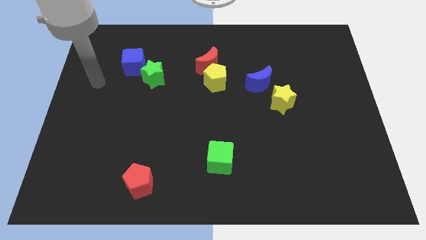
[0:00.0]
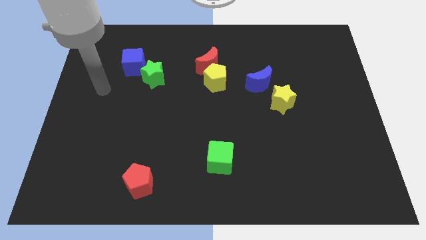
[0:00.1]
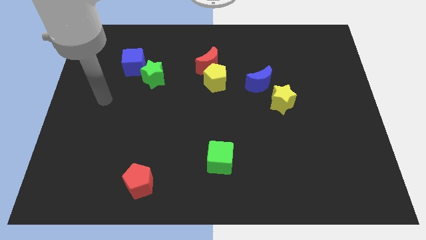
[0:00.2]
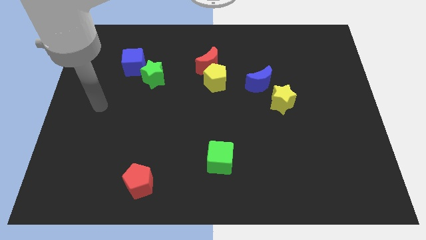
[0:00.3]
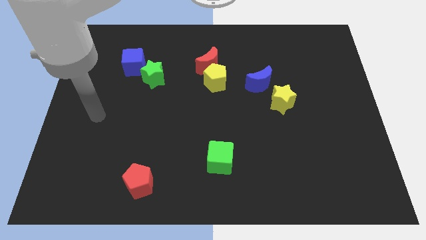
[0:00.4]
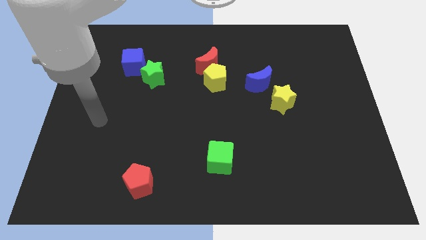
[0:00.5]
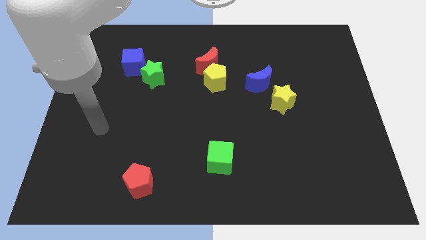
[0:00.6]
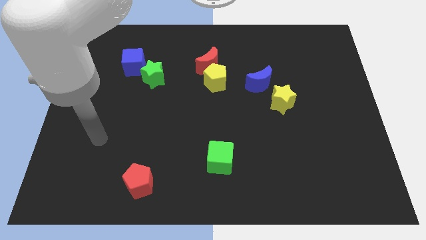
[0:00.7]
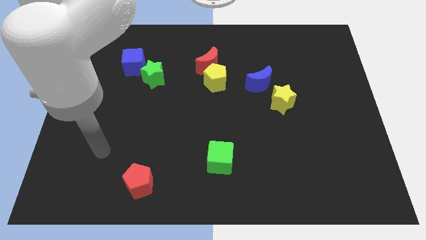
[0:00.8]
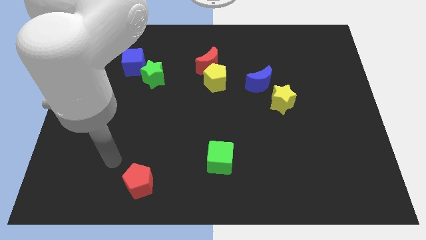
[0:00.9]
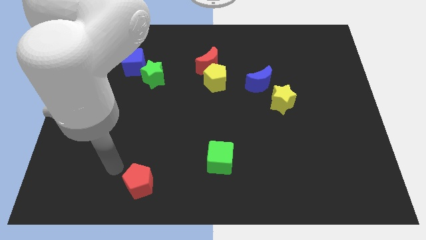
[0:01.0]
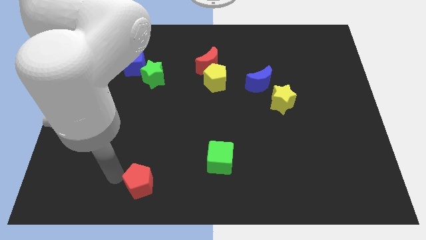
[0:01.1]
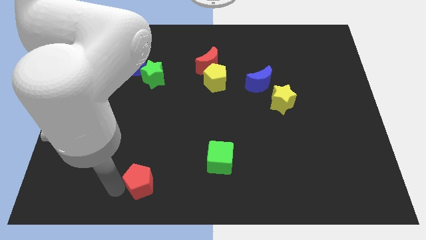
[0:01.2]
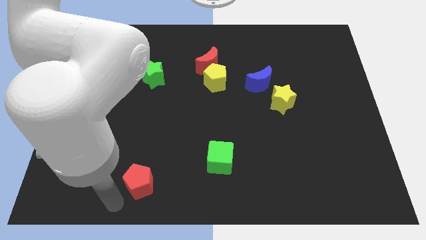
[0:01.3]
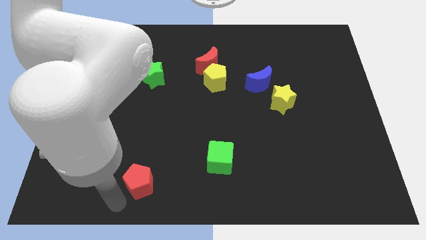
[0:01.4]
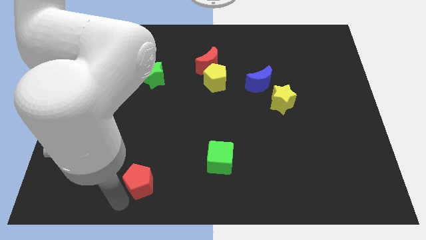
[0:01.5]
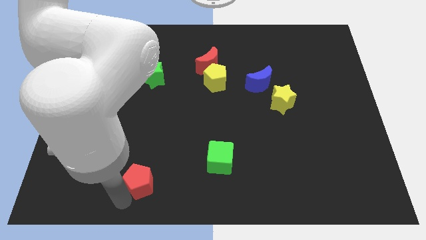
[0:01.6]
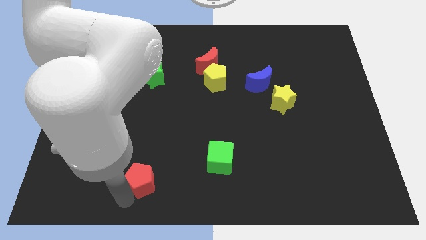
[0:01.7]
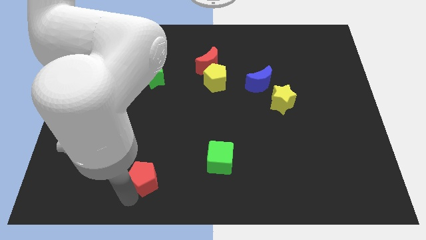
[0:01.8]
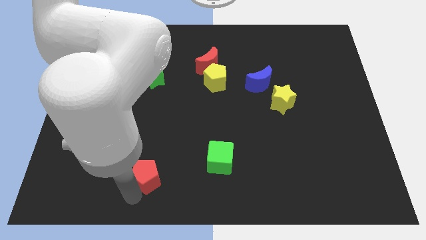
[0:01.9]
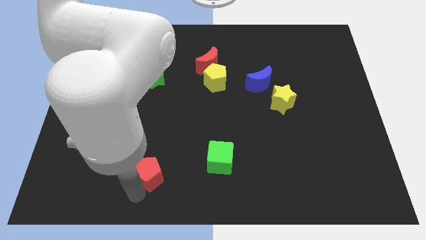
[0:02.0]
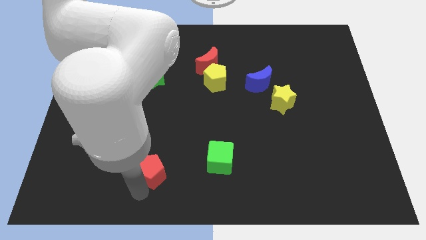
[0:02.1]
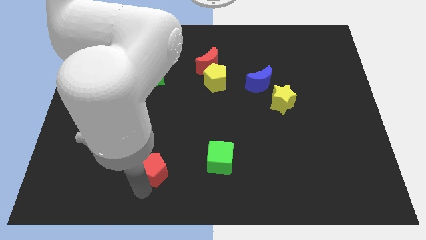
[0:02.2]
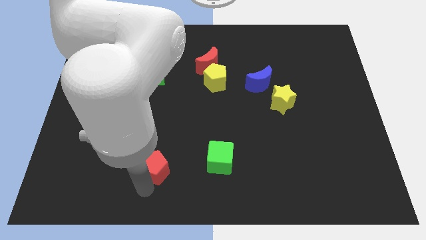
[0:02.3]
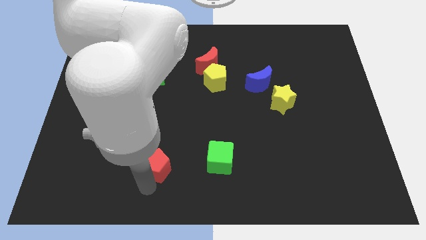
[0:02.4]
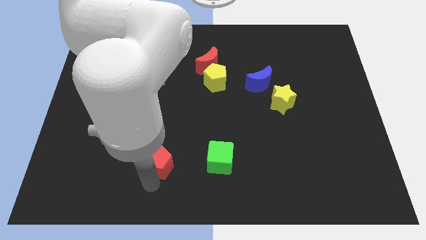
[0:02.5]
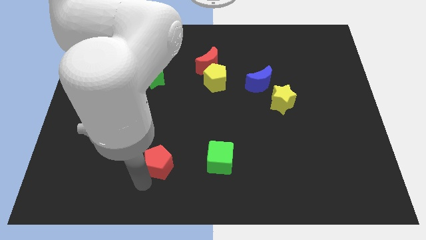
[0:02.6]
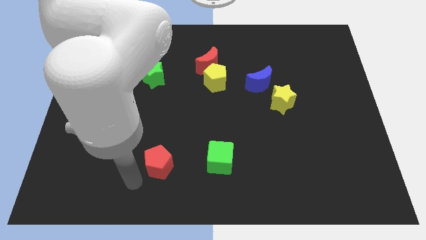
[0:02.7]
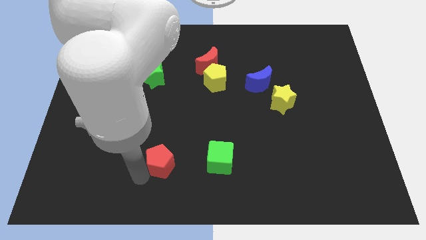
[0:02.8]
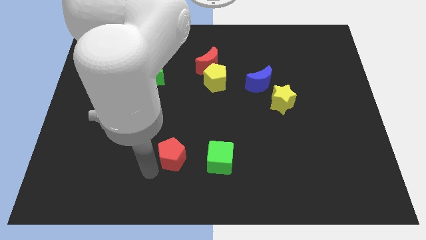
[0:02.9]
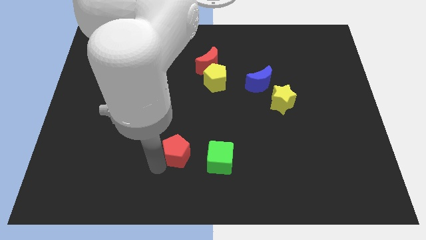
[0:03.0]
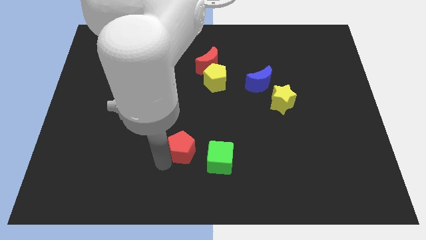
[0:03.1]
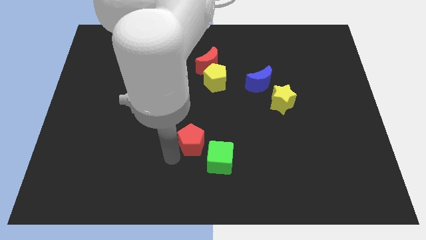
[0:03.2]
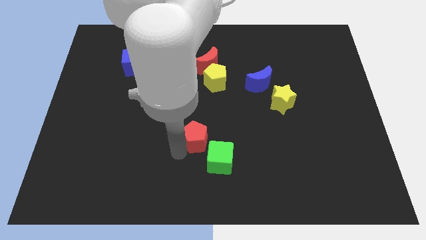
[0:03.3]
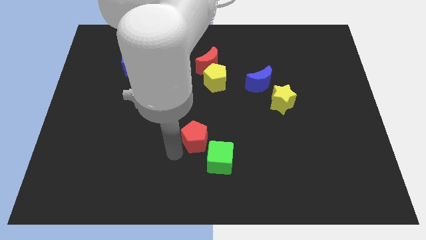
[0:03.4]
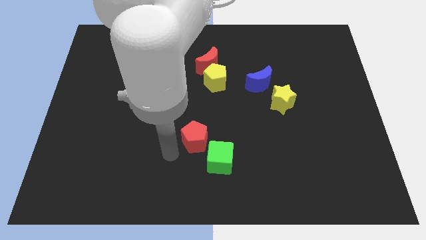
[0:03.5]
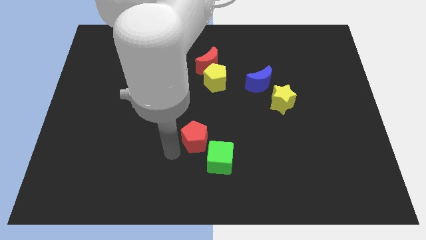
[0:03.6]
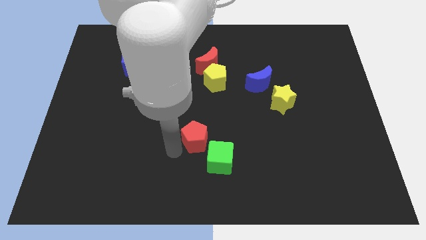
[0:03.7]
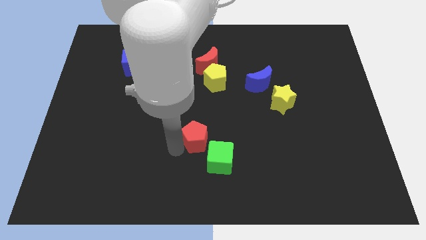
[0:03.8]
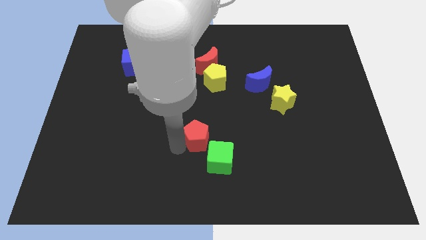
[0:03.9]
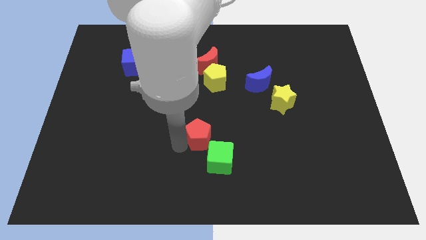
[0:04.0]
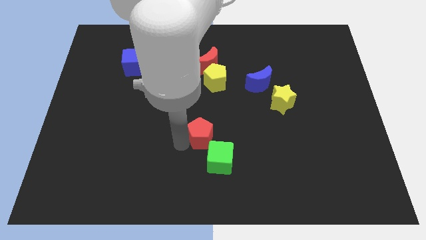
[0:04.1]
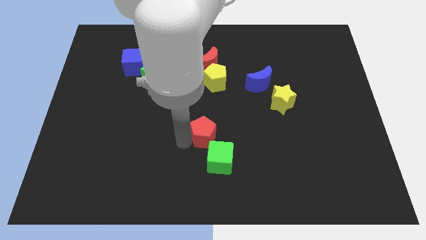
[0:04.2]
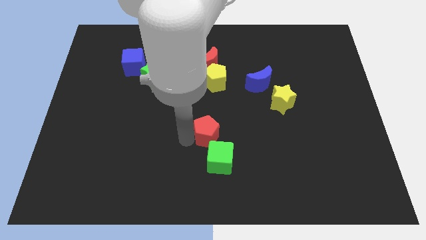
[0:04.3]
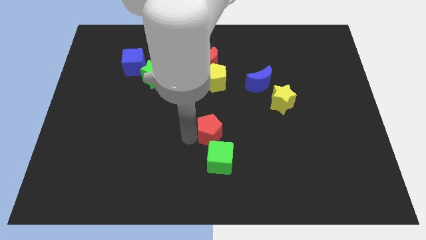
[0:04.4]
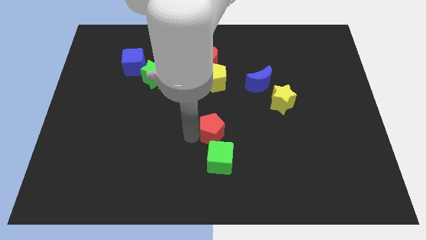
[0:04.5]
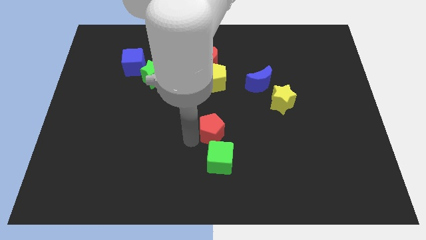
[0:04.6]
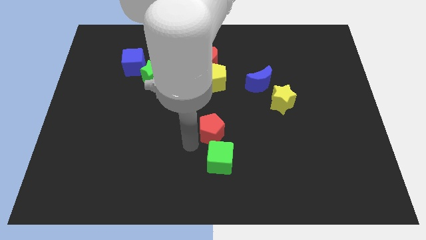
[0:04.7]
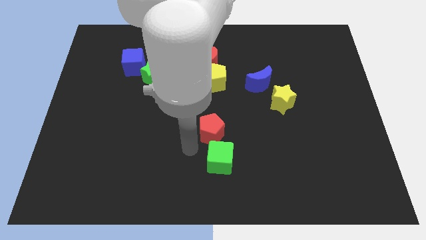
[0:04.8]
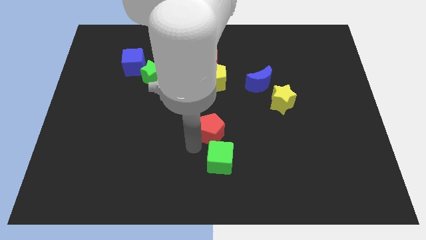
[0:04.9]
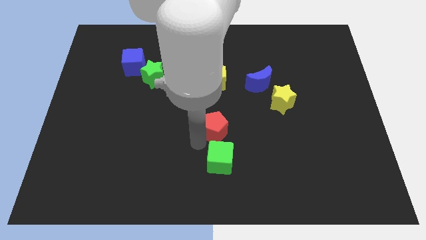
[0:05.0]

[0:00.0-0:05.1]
move the red pentagon upwards and right

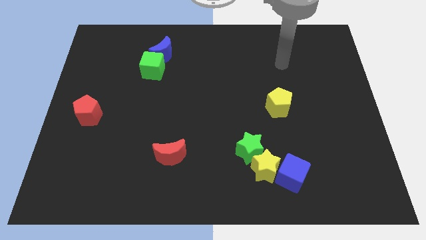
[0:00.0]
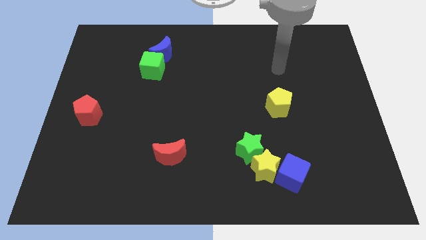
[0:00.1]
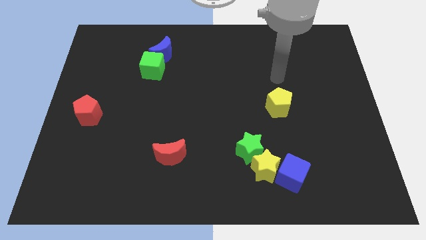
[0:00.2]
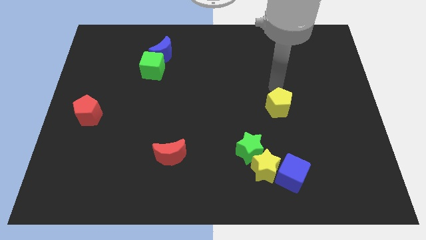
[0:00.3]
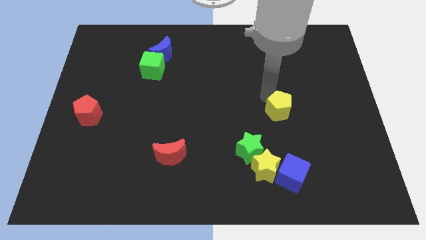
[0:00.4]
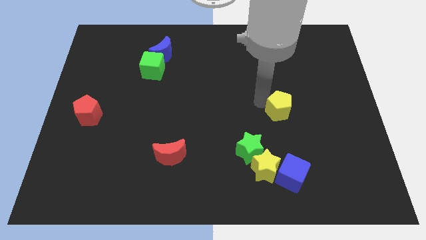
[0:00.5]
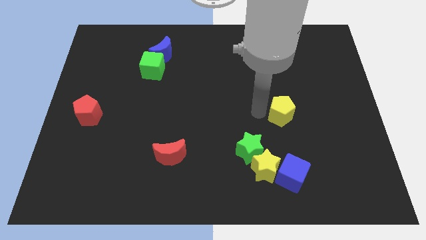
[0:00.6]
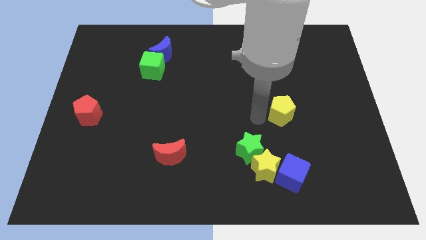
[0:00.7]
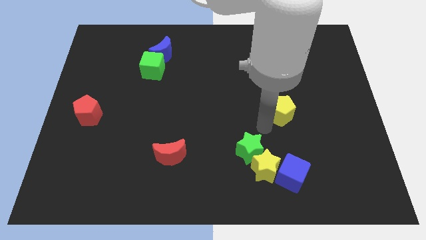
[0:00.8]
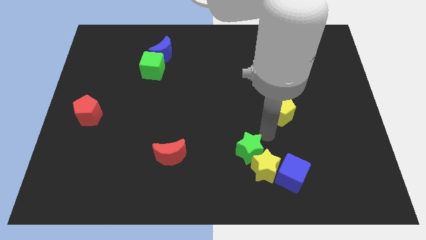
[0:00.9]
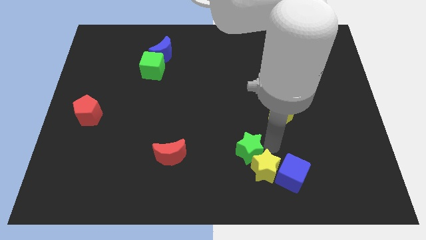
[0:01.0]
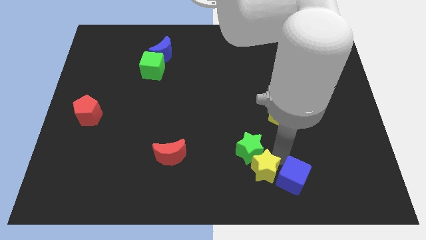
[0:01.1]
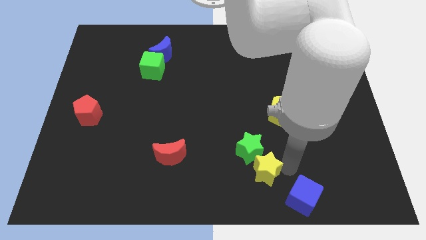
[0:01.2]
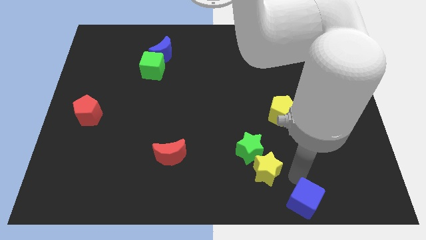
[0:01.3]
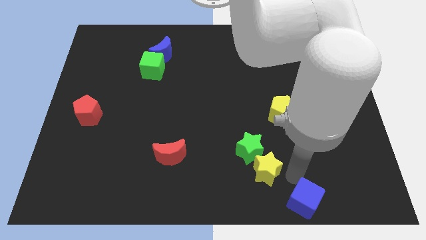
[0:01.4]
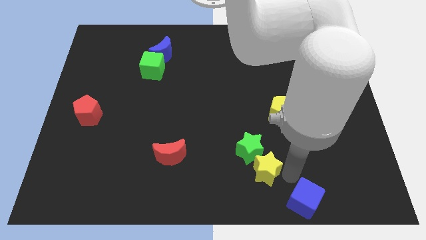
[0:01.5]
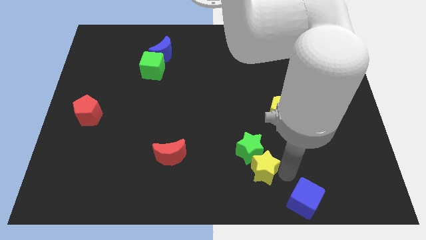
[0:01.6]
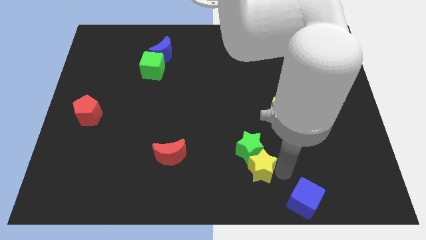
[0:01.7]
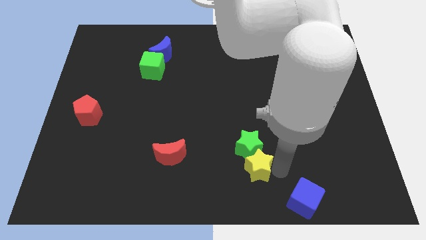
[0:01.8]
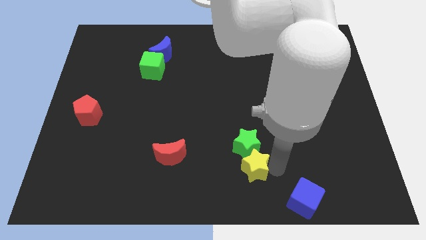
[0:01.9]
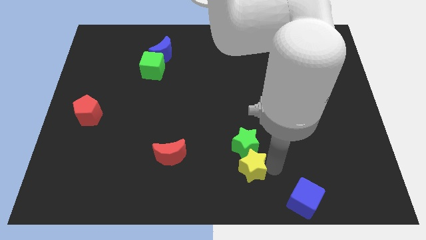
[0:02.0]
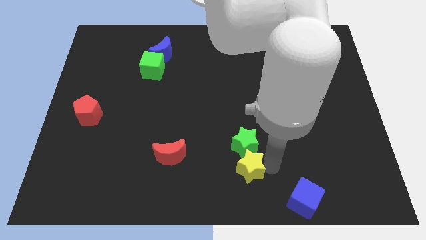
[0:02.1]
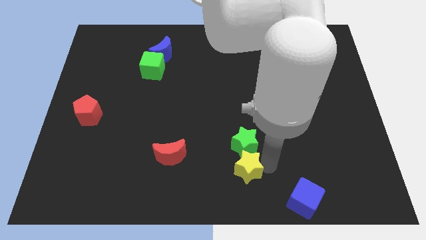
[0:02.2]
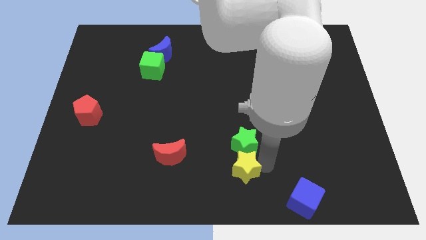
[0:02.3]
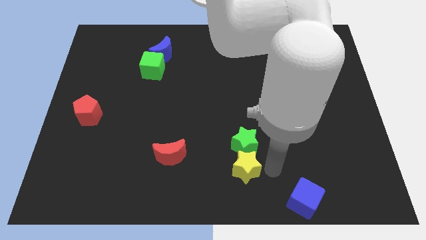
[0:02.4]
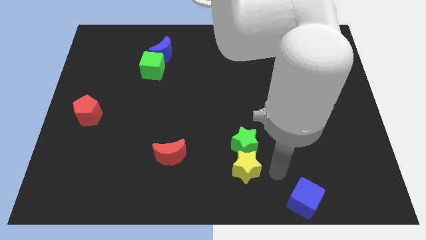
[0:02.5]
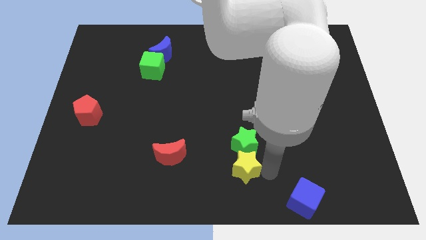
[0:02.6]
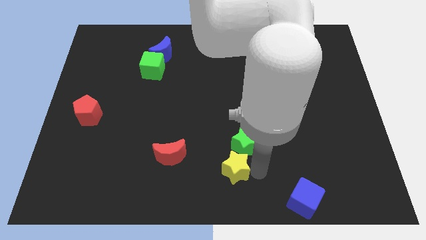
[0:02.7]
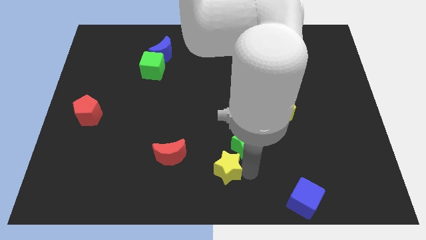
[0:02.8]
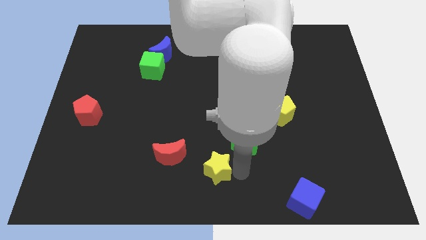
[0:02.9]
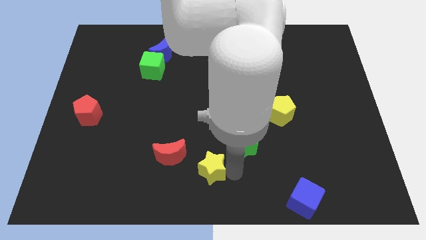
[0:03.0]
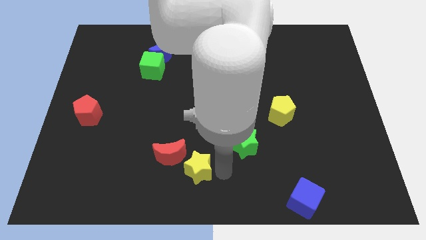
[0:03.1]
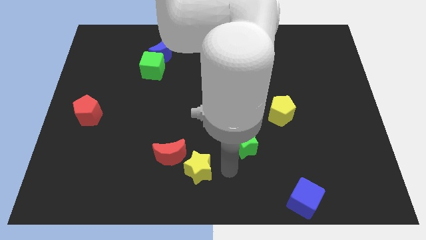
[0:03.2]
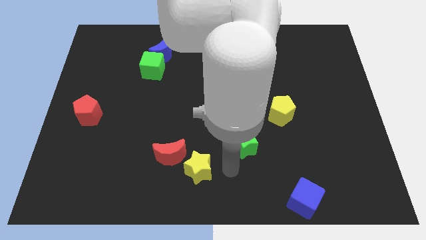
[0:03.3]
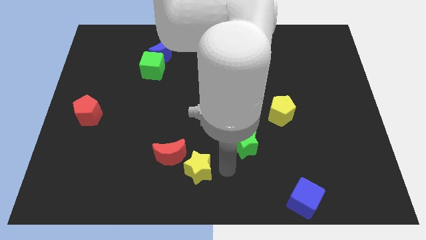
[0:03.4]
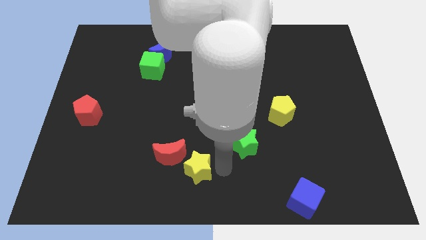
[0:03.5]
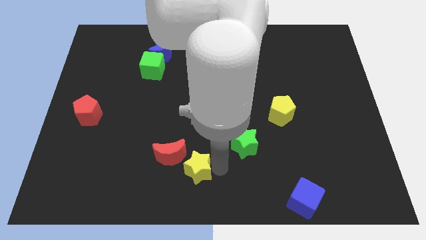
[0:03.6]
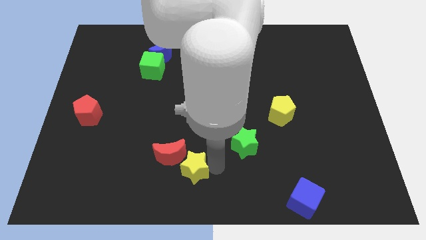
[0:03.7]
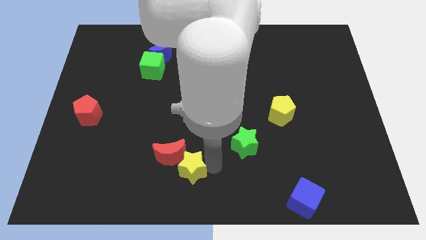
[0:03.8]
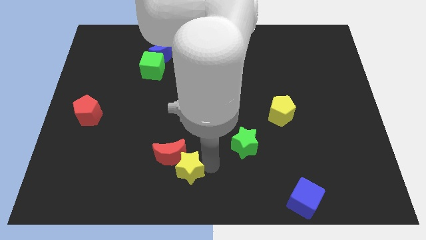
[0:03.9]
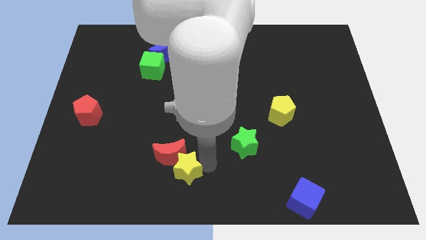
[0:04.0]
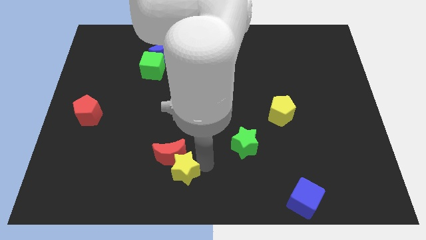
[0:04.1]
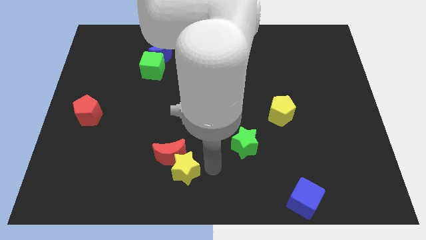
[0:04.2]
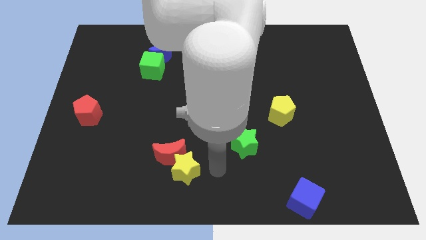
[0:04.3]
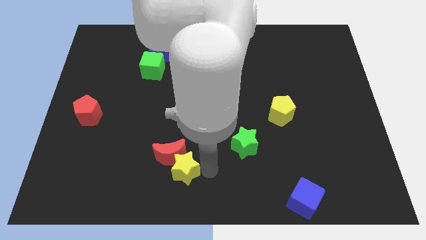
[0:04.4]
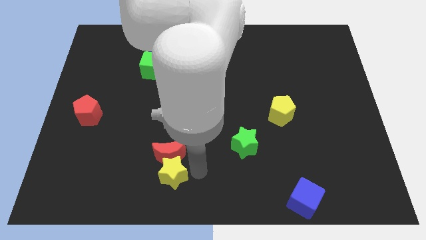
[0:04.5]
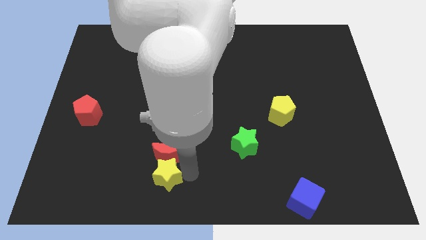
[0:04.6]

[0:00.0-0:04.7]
push the yellow star left
